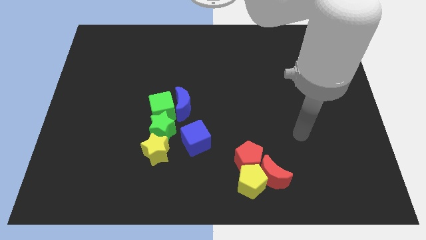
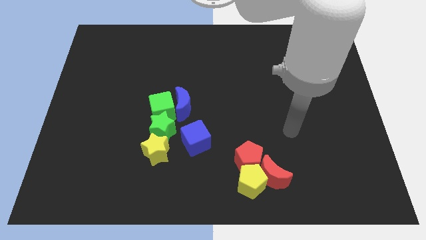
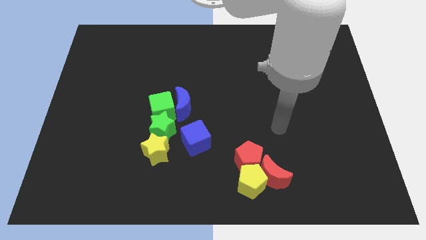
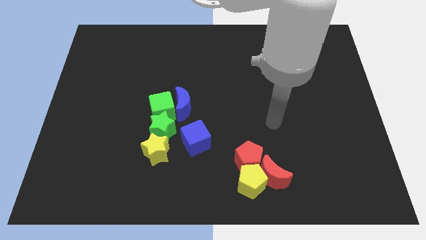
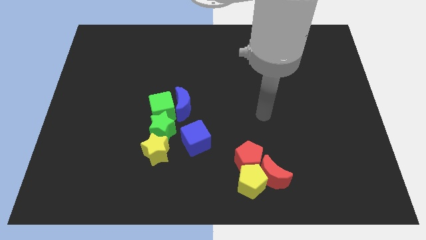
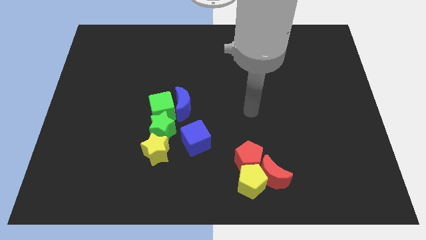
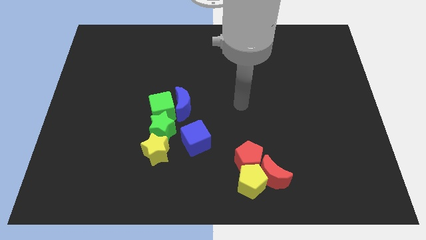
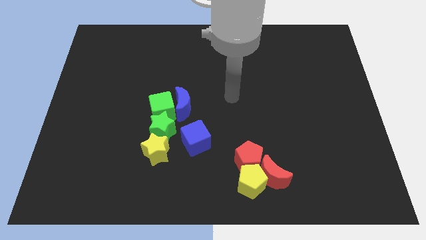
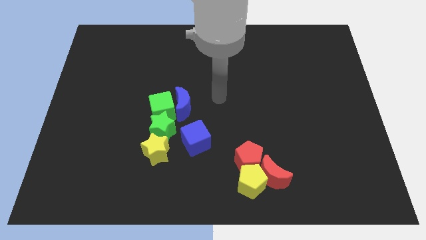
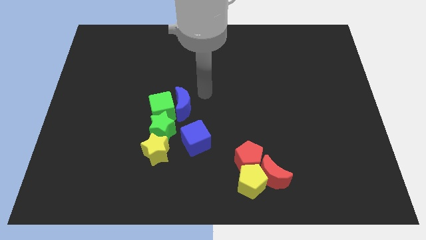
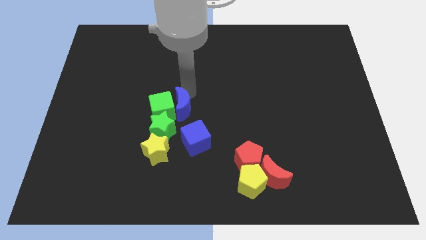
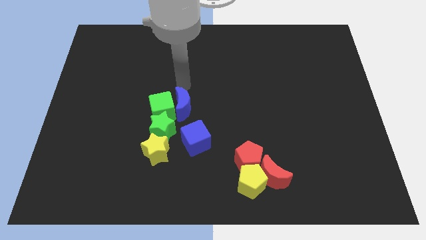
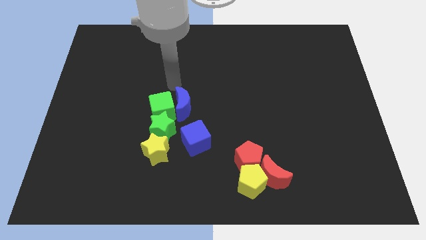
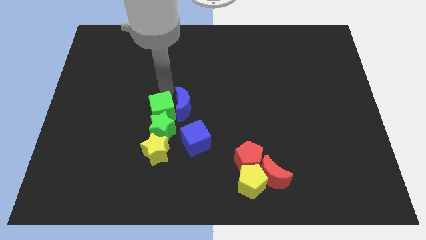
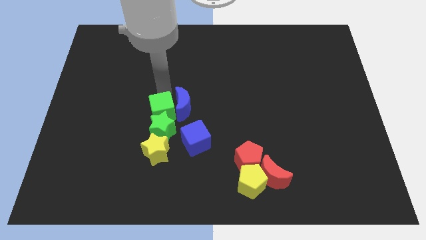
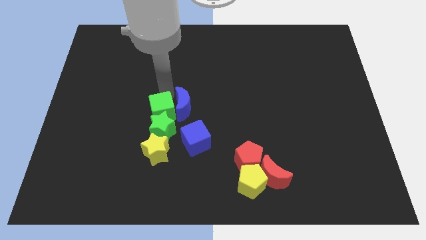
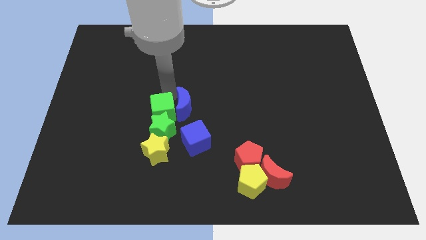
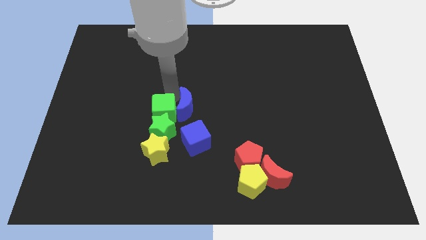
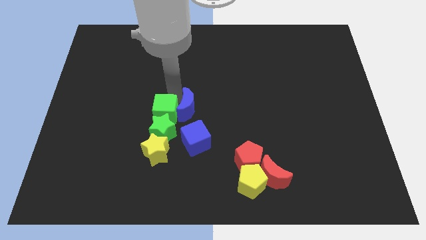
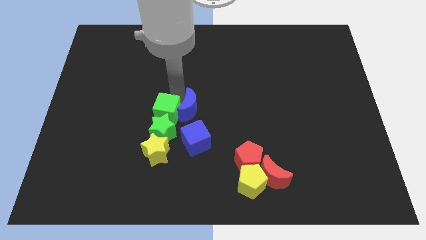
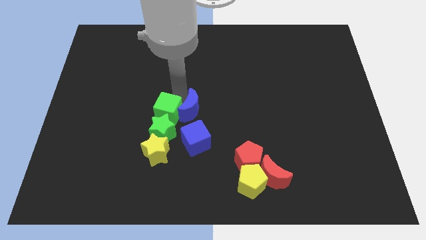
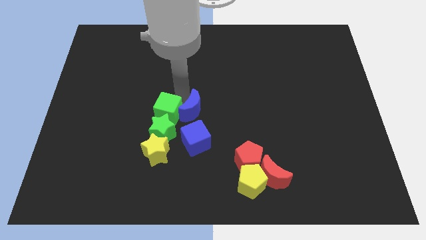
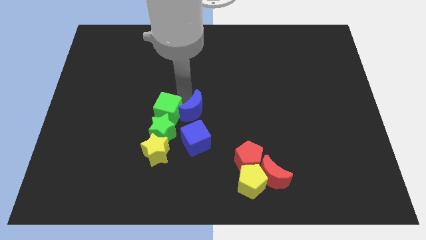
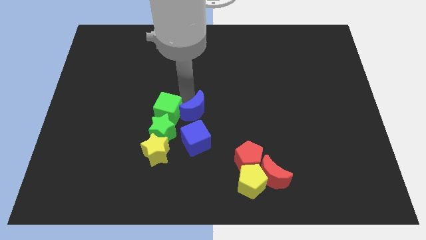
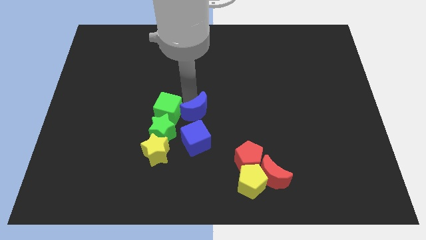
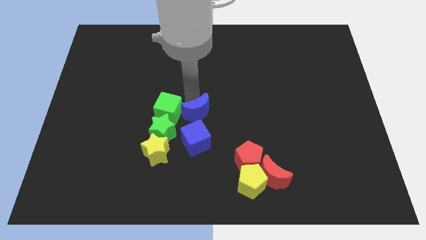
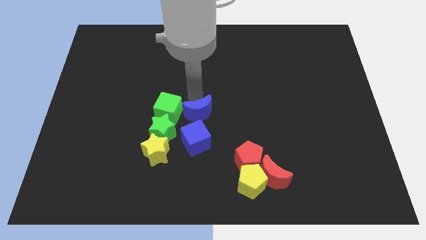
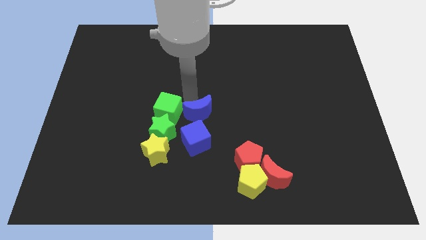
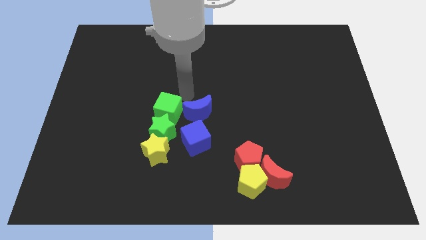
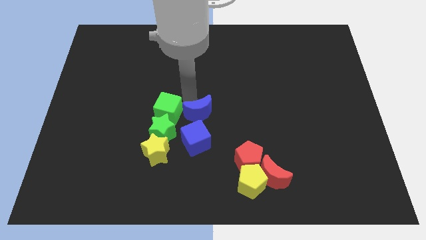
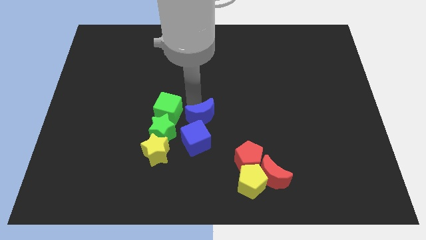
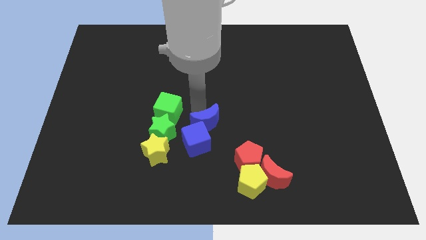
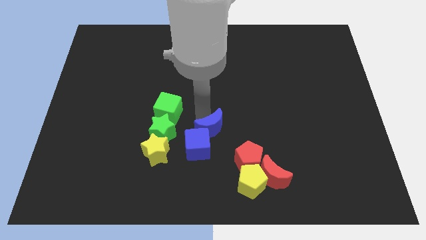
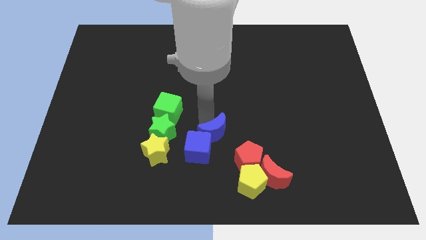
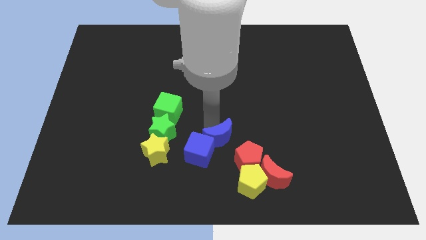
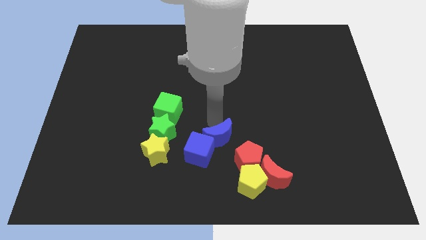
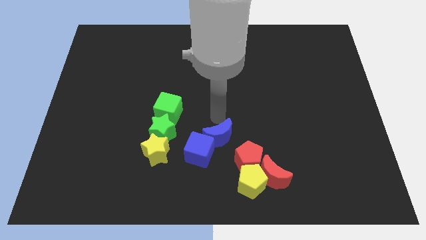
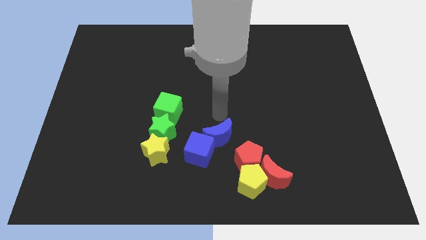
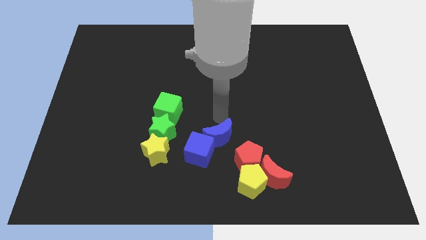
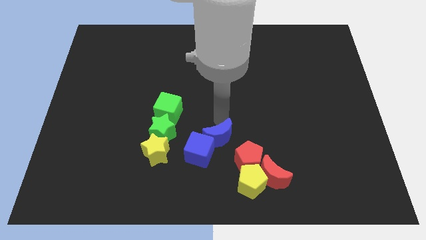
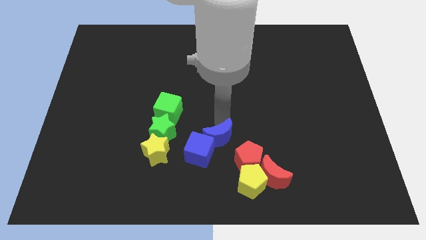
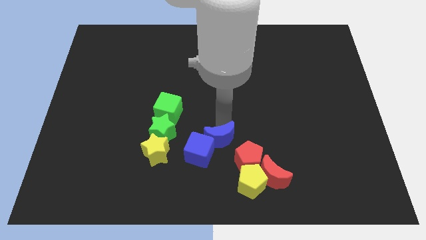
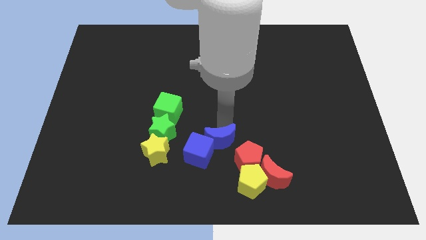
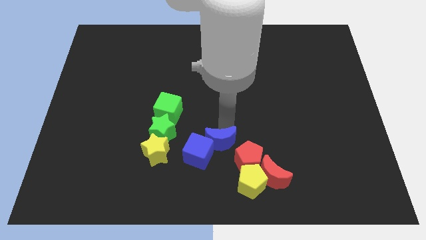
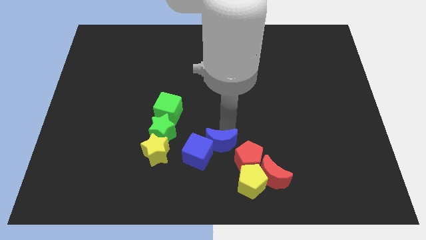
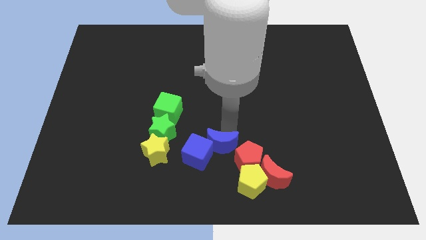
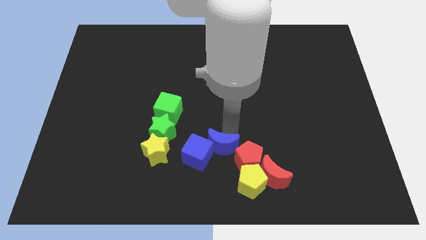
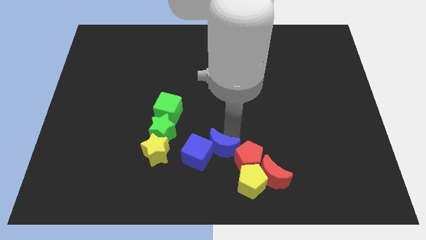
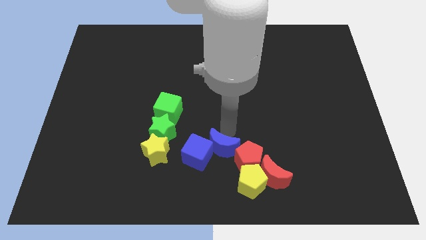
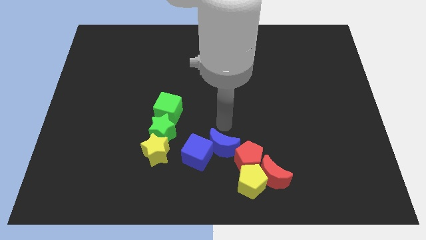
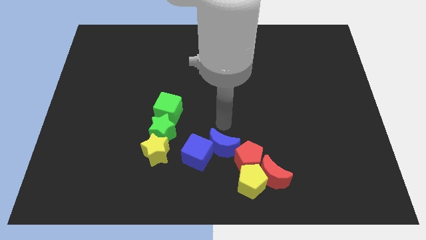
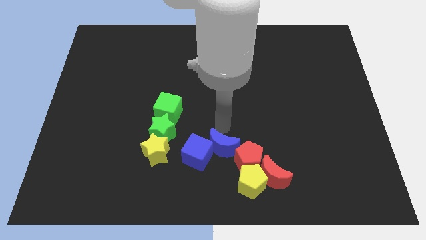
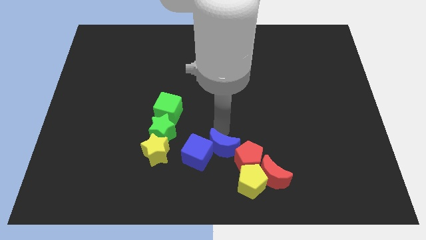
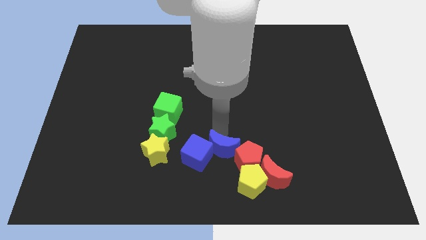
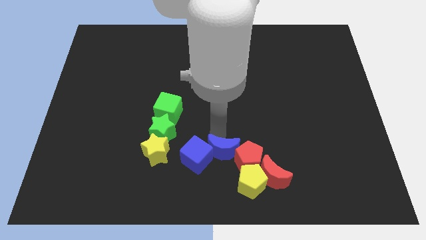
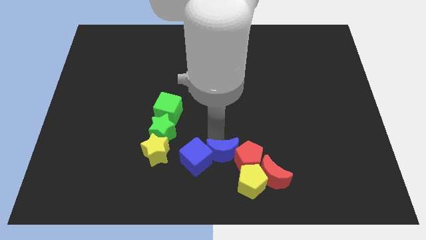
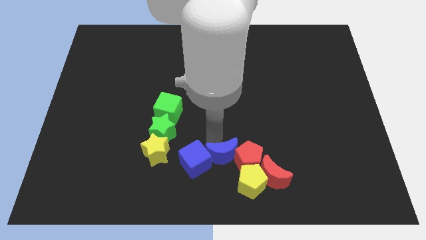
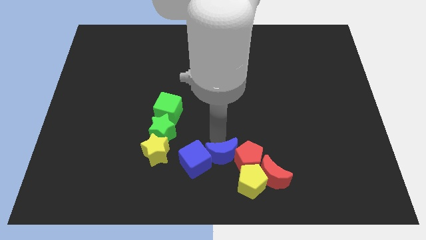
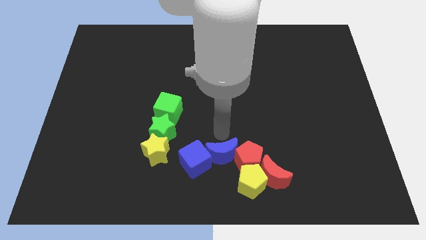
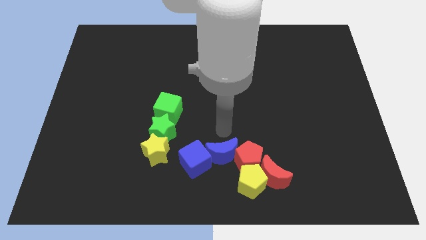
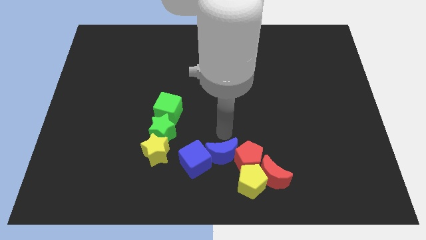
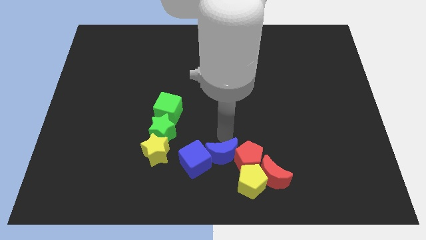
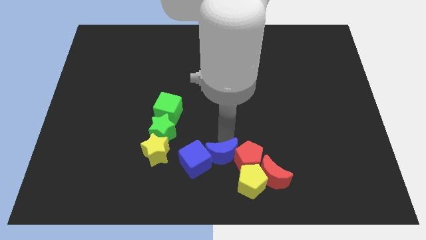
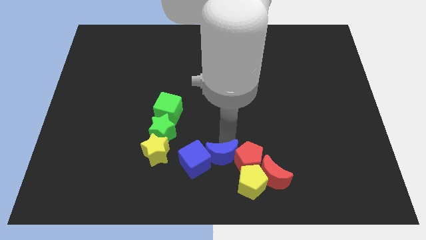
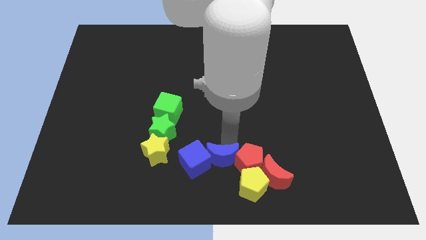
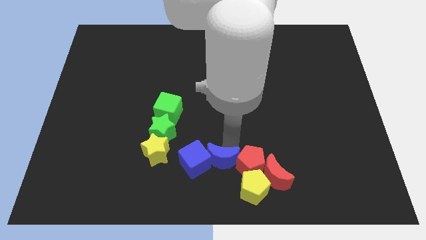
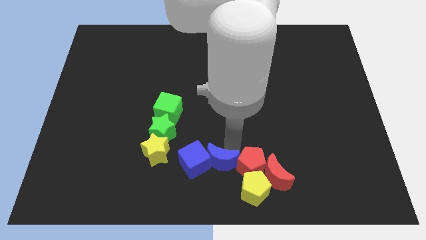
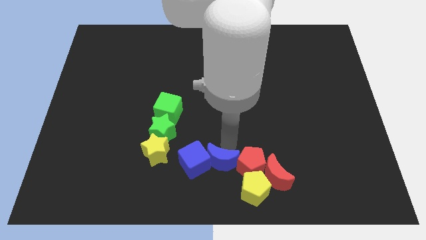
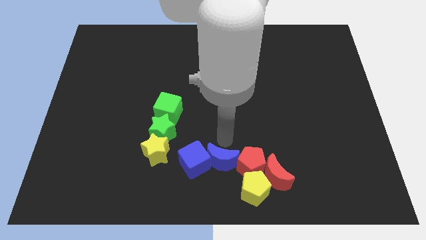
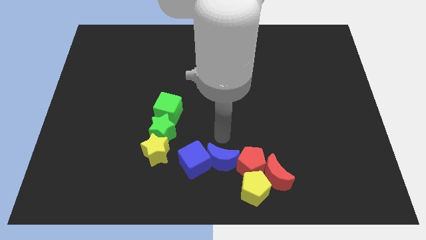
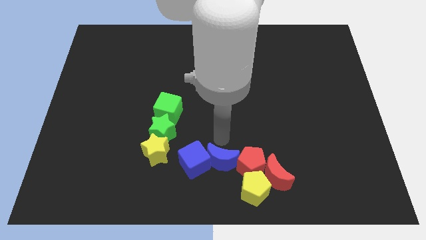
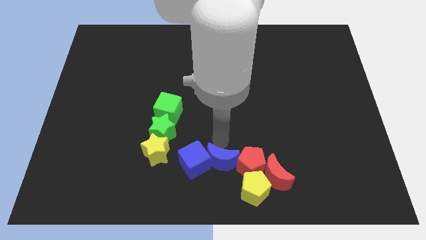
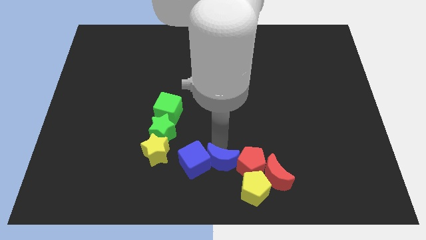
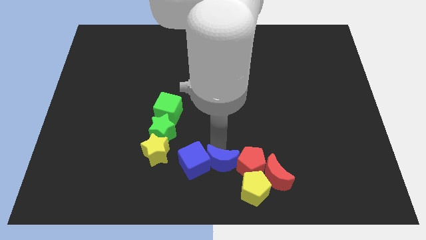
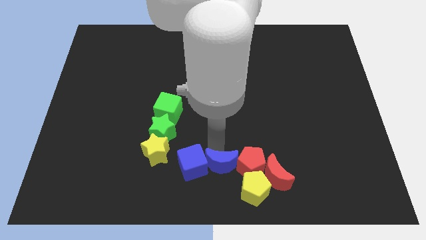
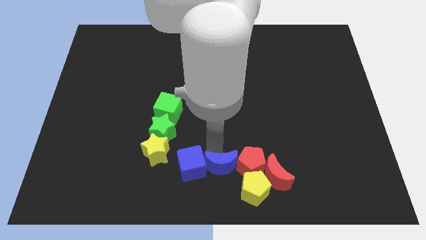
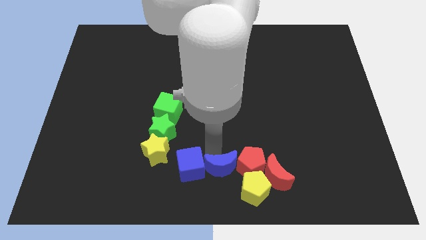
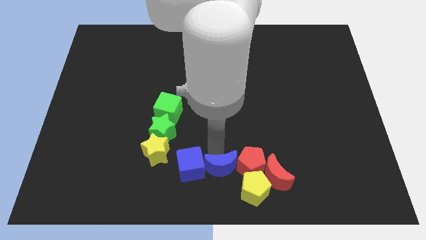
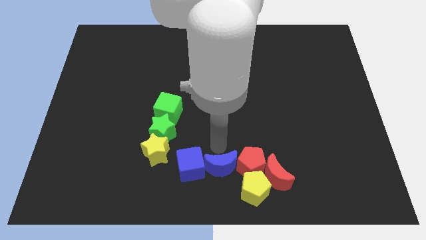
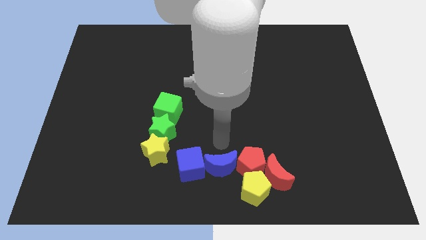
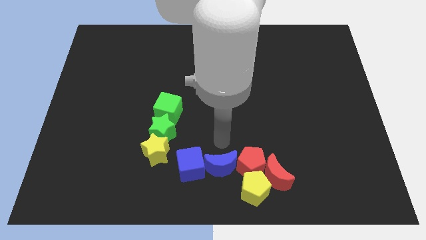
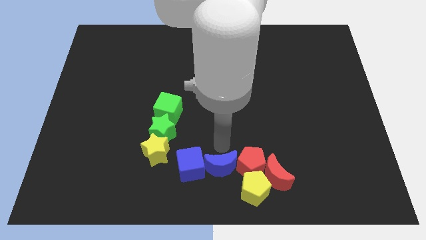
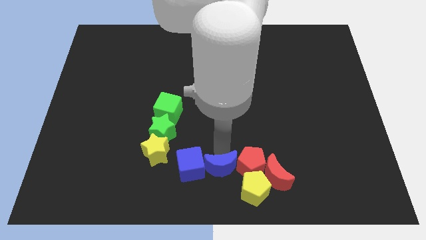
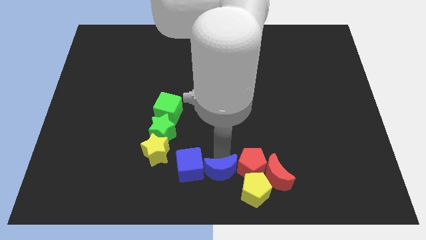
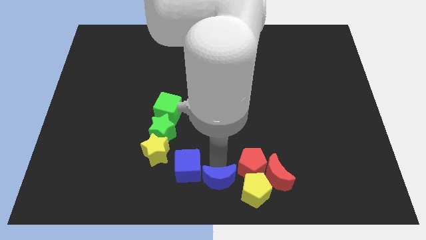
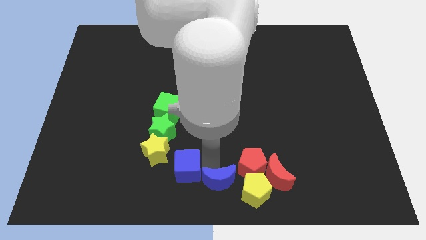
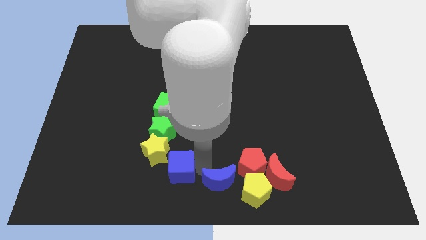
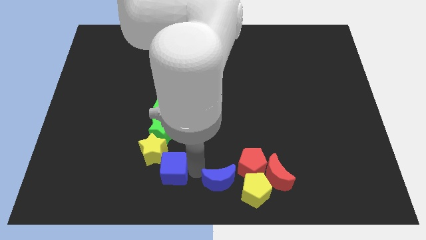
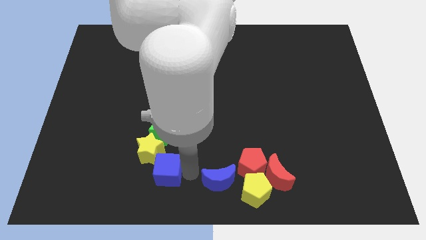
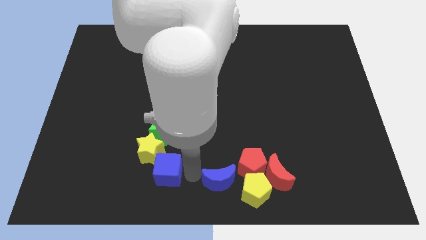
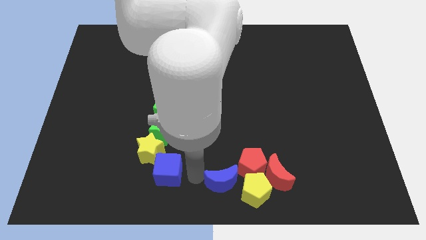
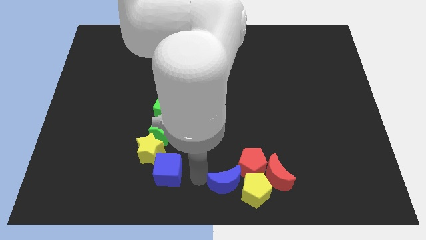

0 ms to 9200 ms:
move the blue moon next to the yellow pentagon
